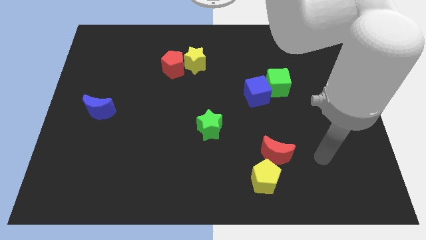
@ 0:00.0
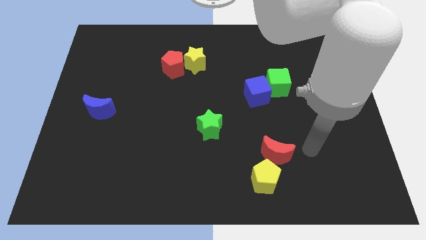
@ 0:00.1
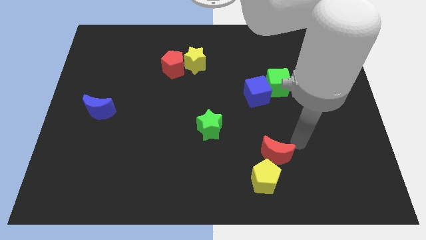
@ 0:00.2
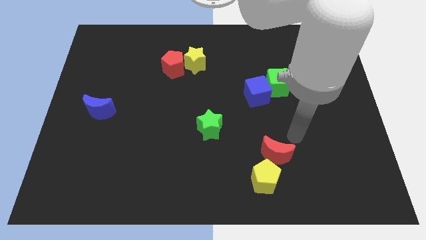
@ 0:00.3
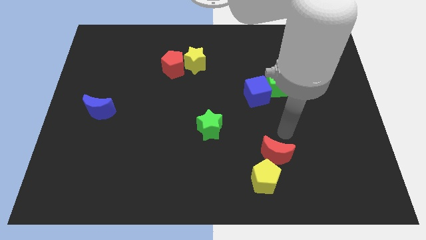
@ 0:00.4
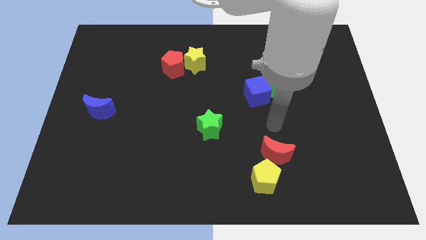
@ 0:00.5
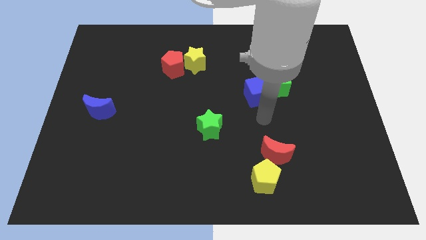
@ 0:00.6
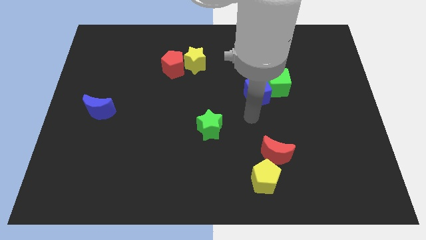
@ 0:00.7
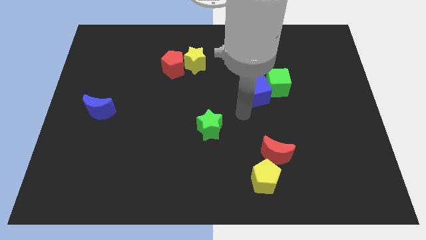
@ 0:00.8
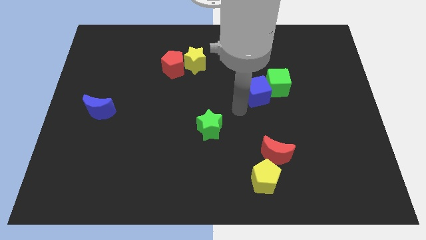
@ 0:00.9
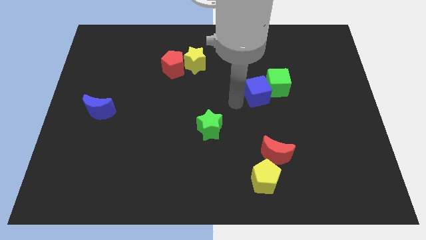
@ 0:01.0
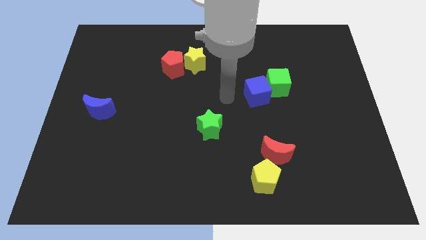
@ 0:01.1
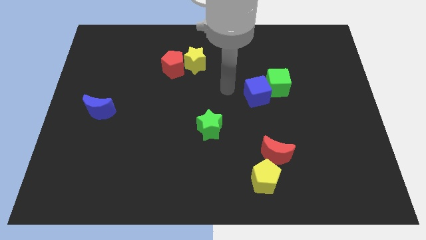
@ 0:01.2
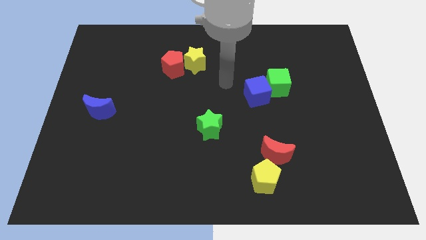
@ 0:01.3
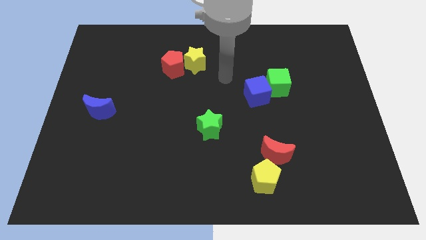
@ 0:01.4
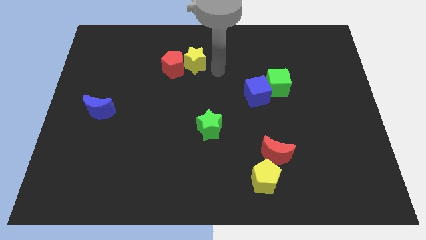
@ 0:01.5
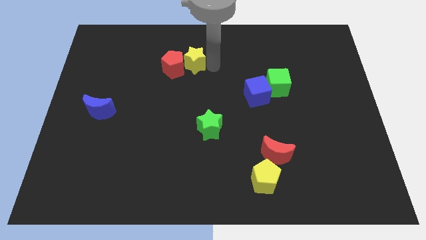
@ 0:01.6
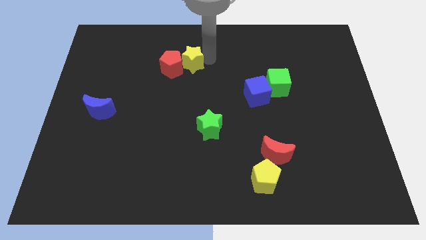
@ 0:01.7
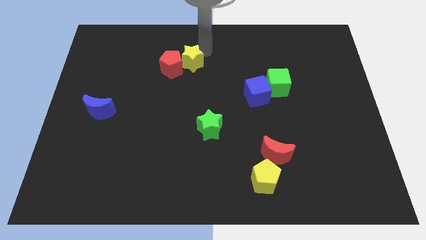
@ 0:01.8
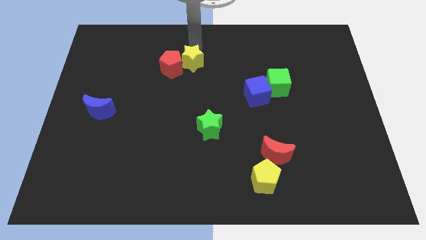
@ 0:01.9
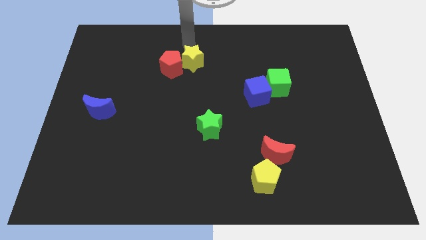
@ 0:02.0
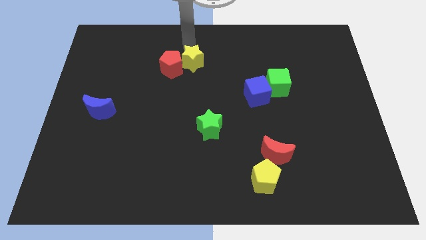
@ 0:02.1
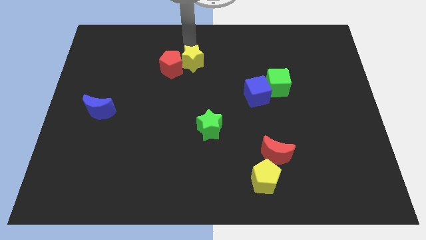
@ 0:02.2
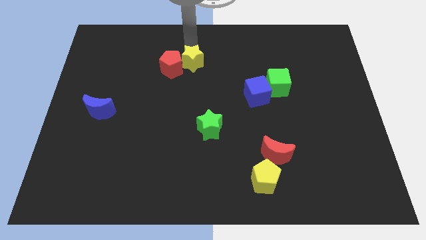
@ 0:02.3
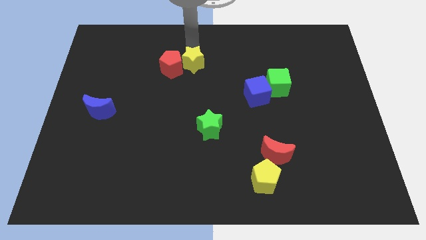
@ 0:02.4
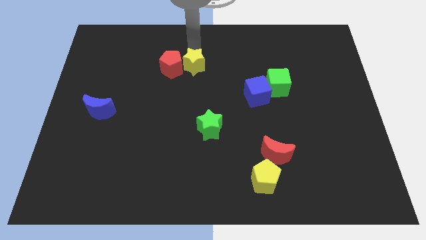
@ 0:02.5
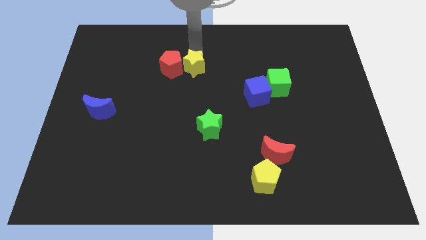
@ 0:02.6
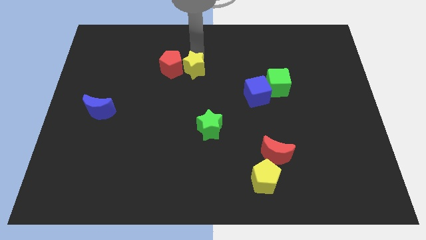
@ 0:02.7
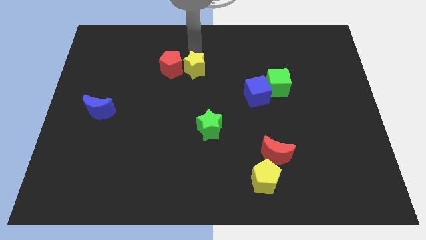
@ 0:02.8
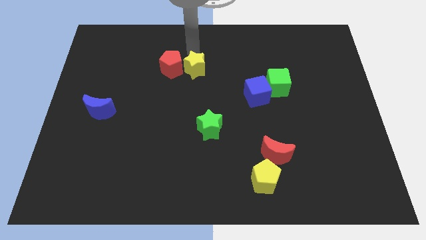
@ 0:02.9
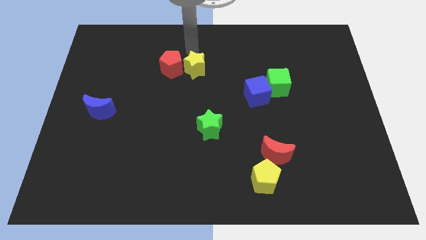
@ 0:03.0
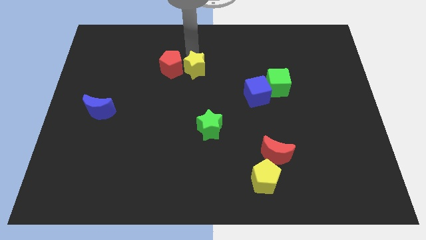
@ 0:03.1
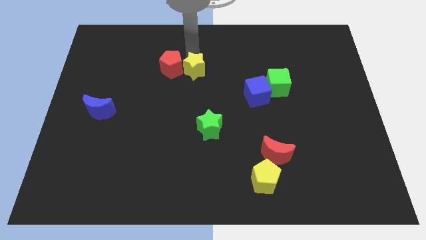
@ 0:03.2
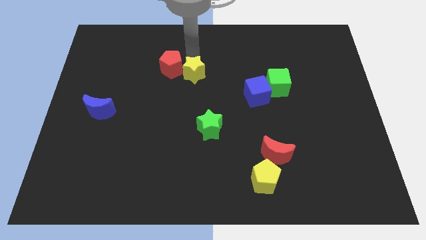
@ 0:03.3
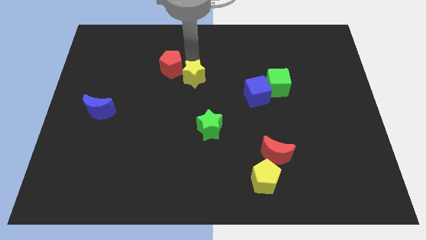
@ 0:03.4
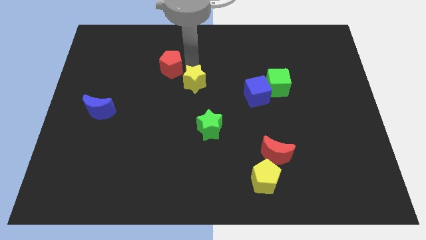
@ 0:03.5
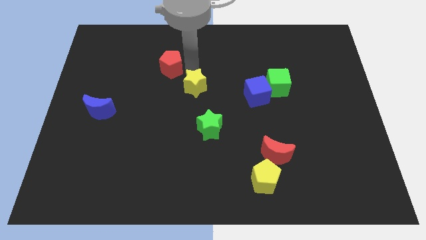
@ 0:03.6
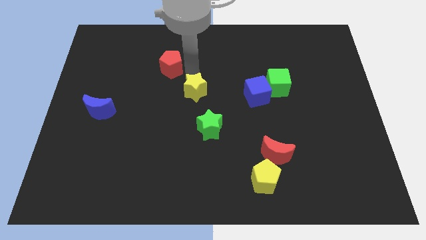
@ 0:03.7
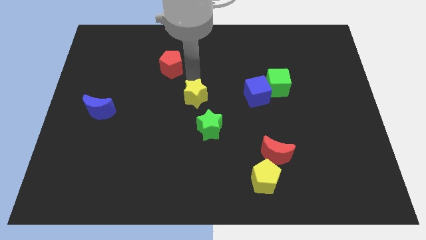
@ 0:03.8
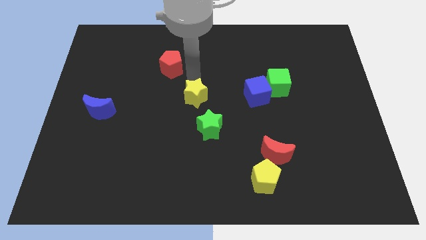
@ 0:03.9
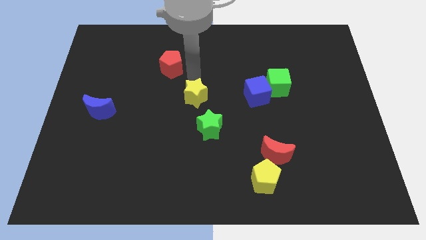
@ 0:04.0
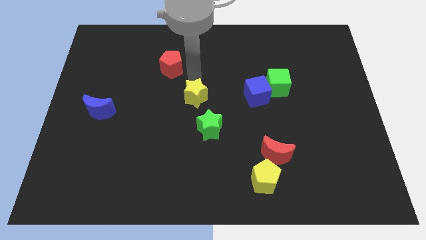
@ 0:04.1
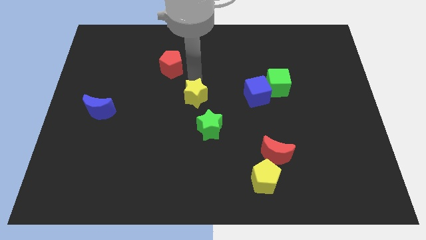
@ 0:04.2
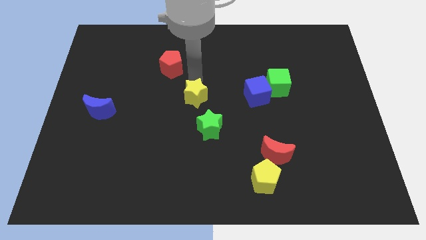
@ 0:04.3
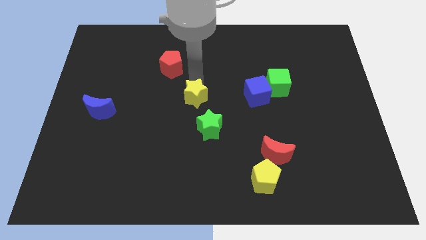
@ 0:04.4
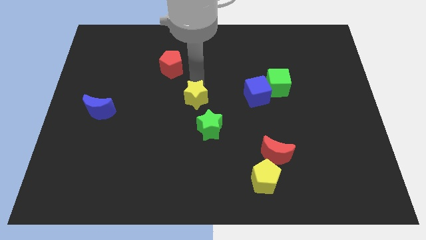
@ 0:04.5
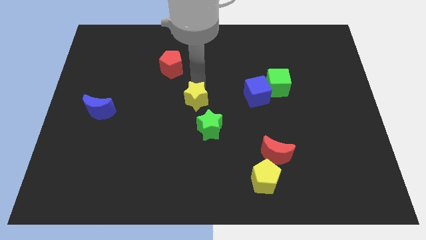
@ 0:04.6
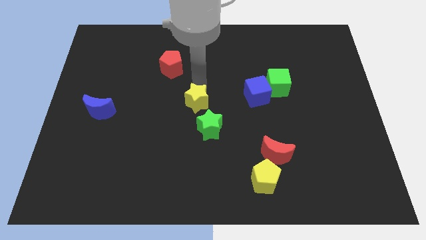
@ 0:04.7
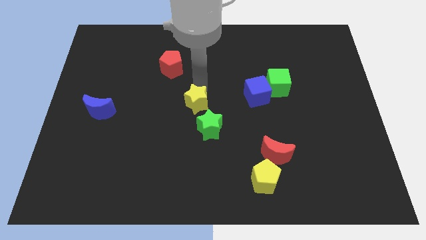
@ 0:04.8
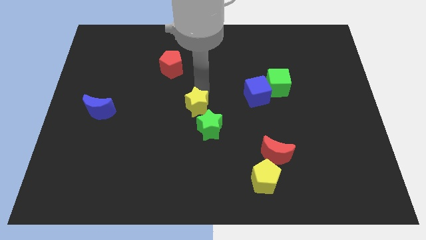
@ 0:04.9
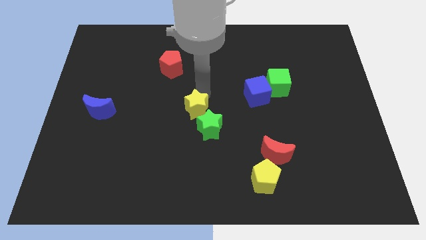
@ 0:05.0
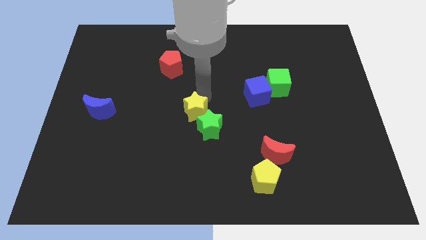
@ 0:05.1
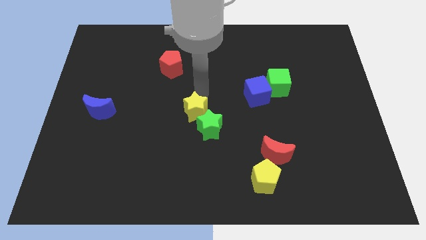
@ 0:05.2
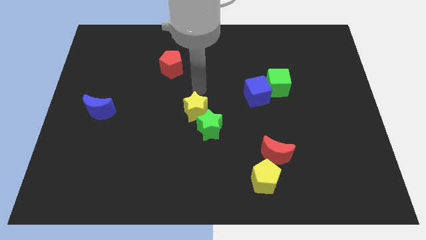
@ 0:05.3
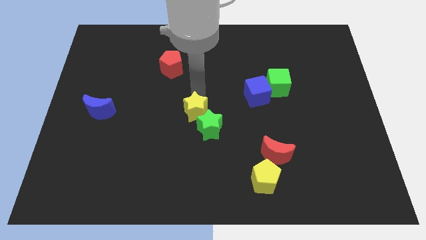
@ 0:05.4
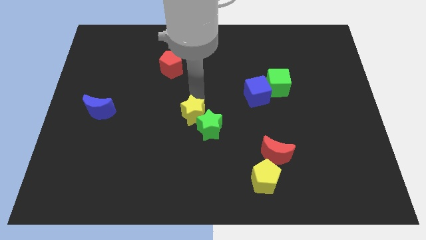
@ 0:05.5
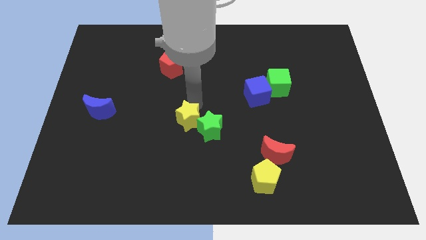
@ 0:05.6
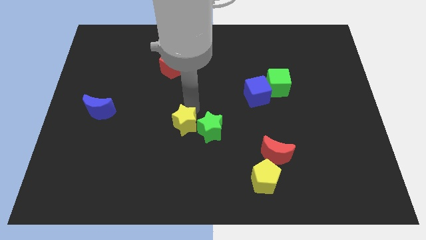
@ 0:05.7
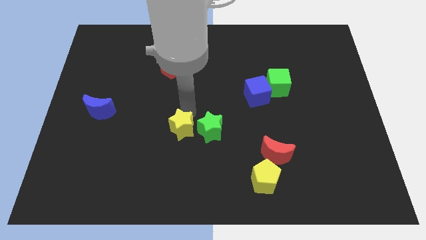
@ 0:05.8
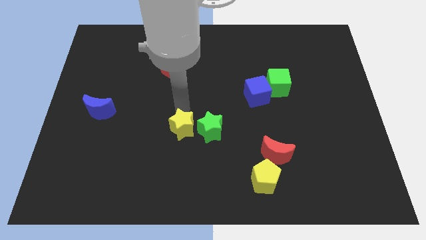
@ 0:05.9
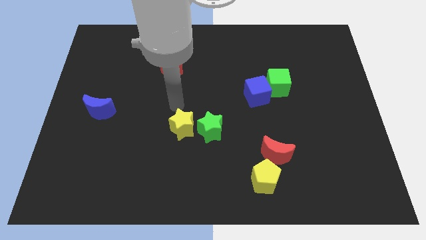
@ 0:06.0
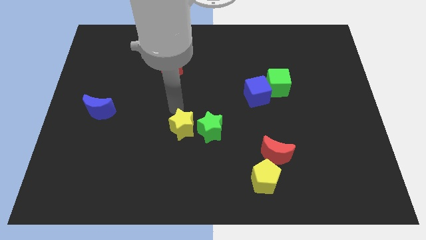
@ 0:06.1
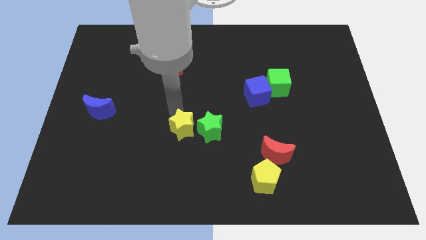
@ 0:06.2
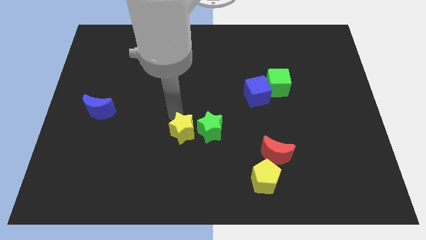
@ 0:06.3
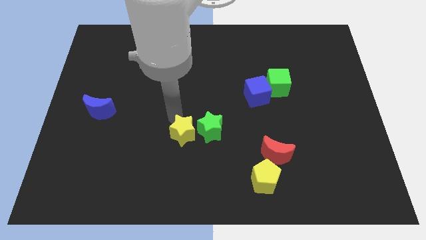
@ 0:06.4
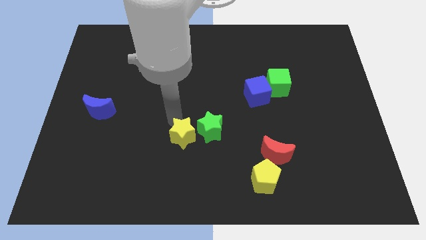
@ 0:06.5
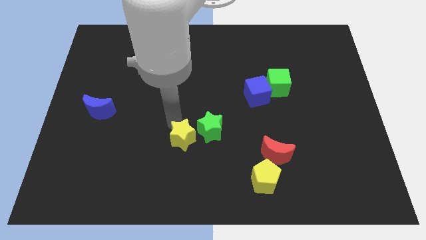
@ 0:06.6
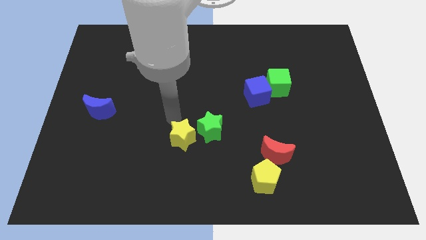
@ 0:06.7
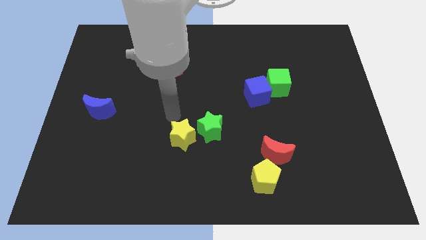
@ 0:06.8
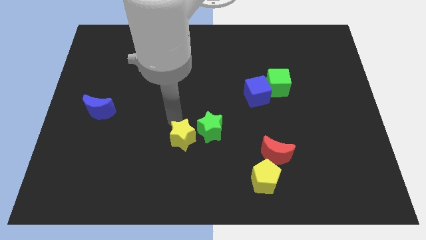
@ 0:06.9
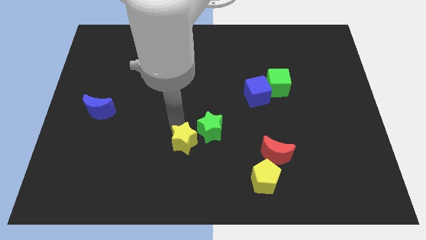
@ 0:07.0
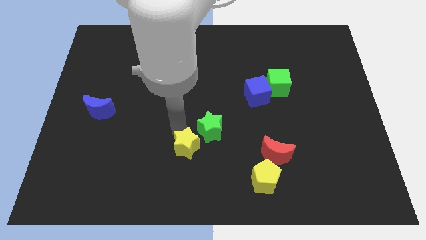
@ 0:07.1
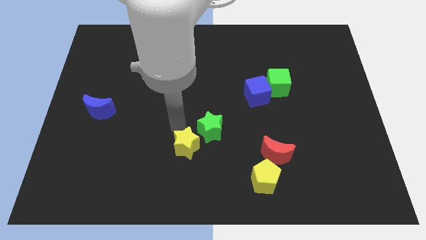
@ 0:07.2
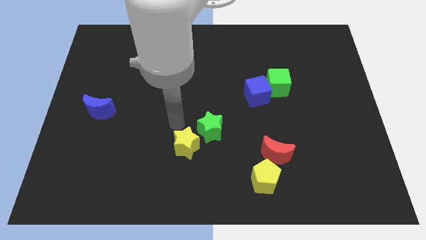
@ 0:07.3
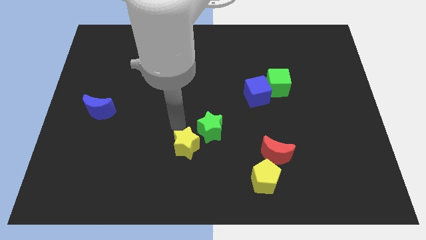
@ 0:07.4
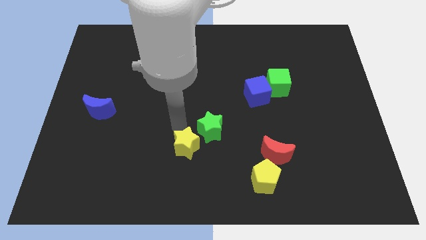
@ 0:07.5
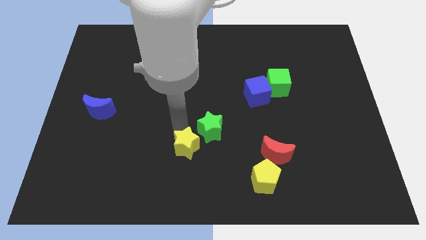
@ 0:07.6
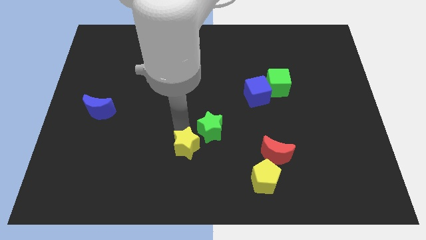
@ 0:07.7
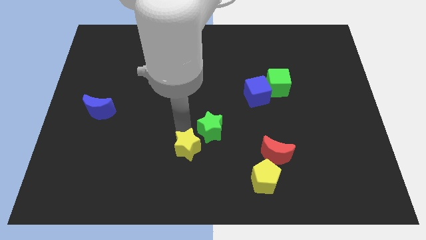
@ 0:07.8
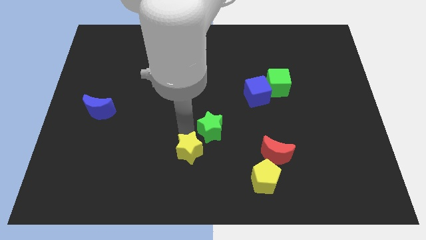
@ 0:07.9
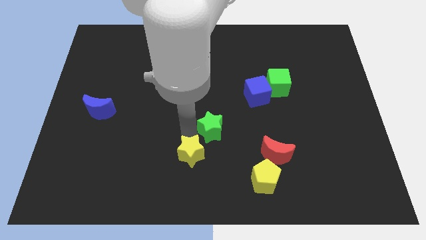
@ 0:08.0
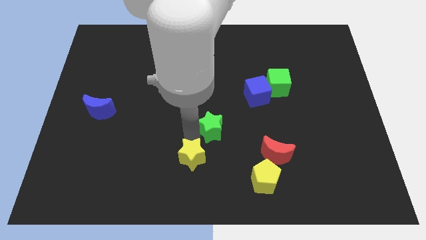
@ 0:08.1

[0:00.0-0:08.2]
slide the yellow star to the bottom
